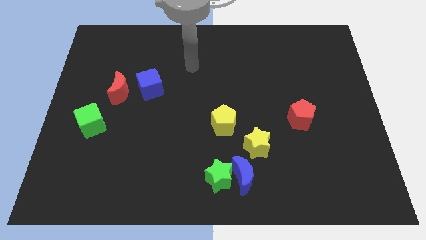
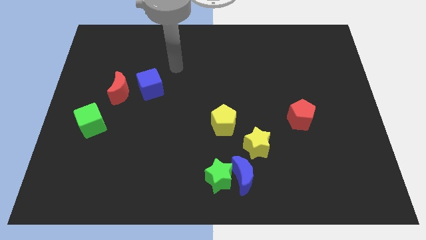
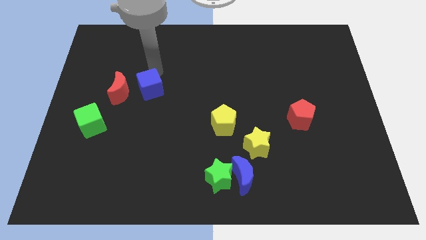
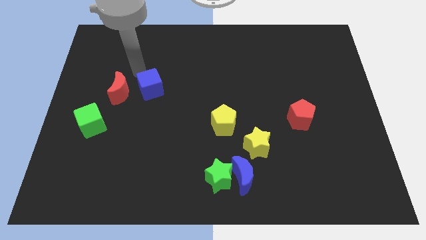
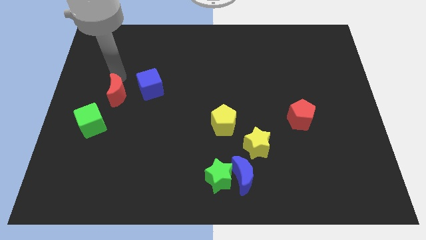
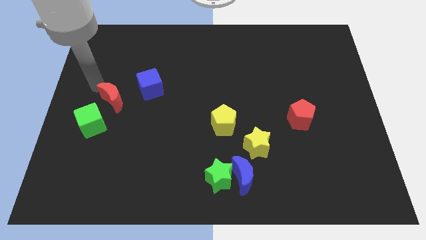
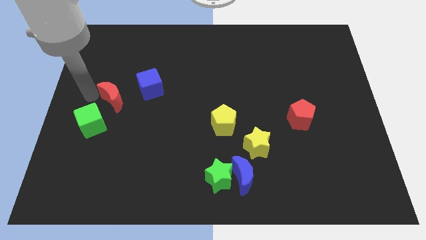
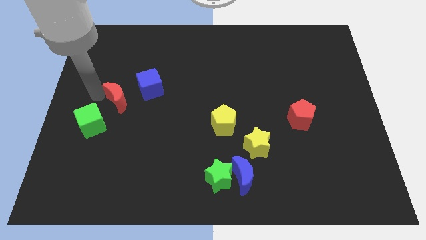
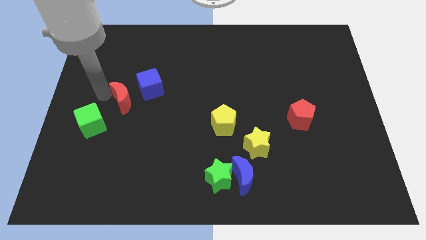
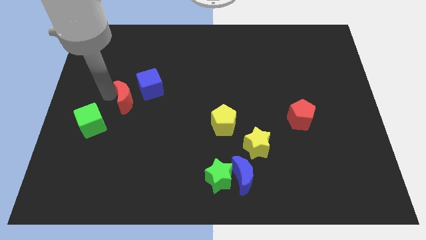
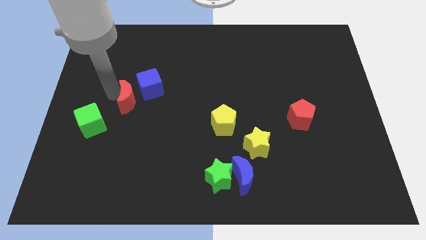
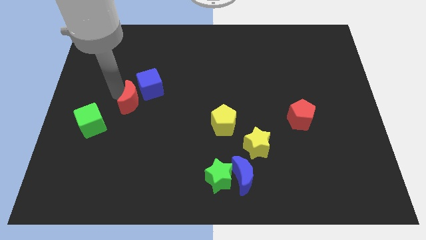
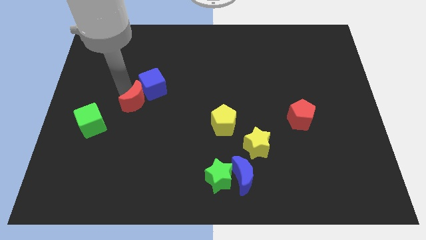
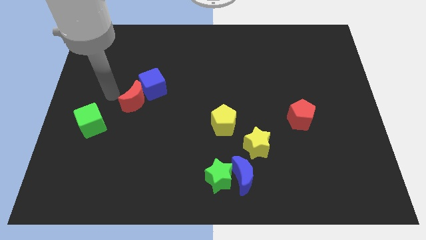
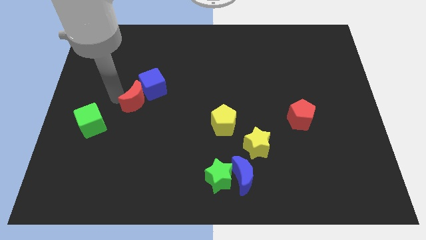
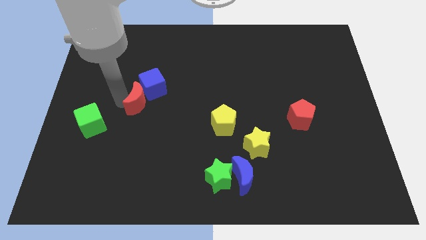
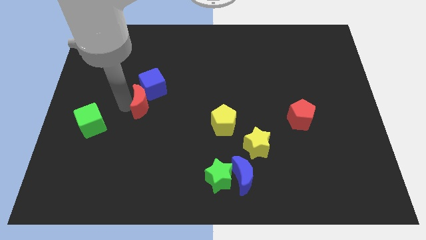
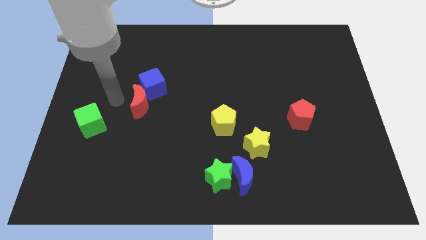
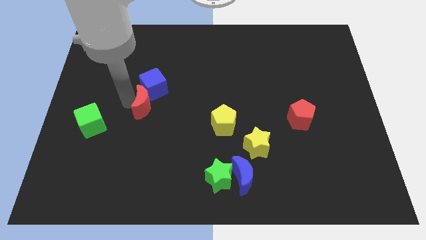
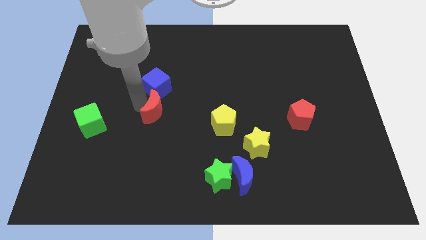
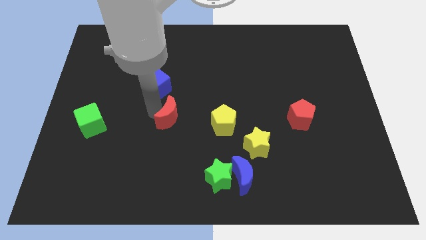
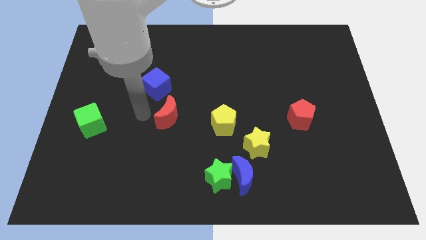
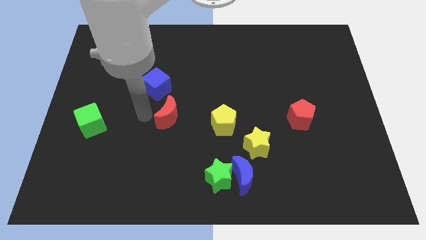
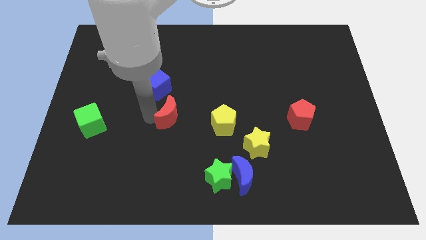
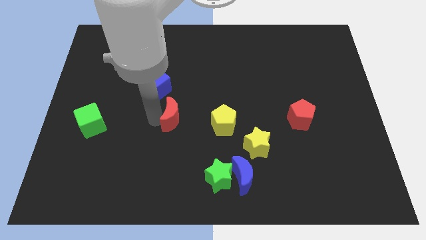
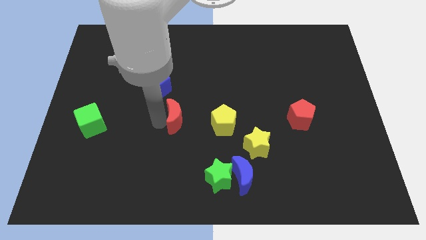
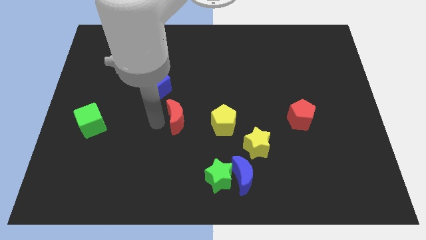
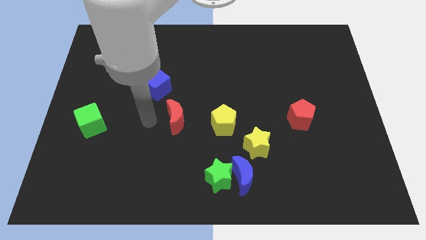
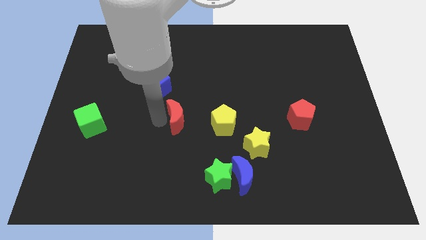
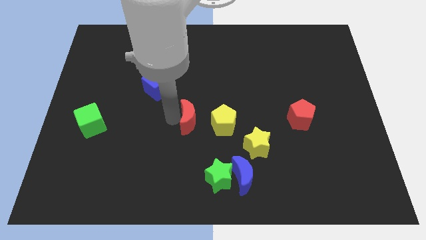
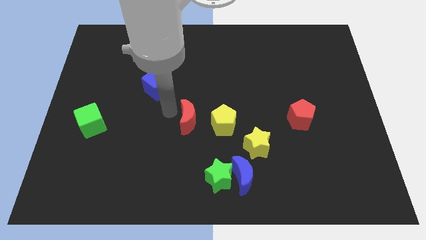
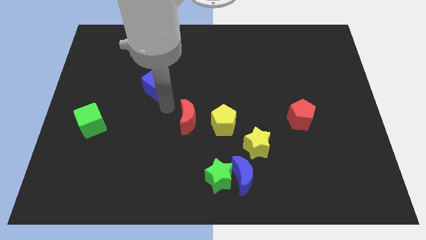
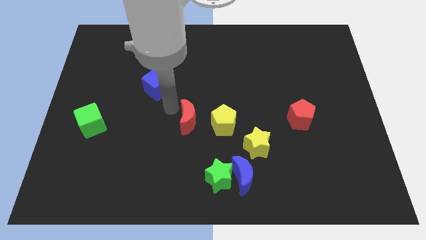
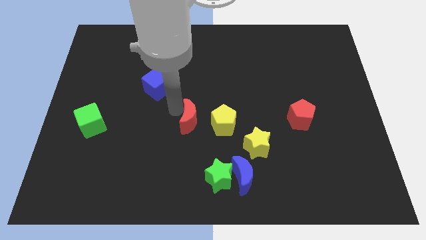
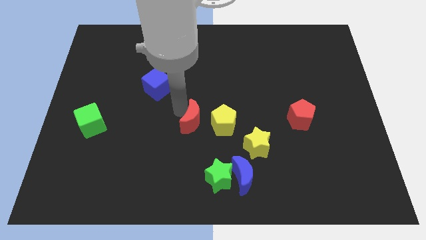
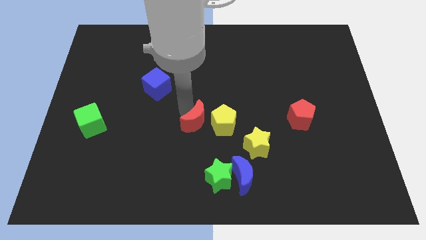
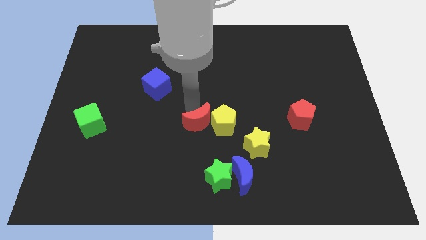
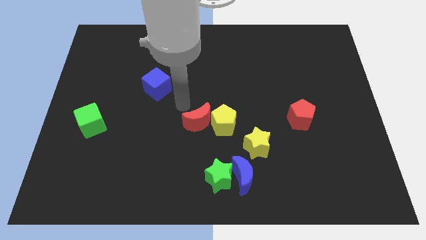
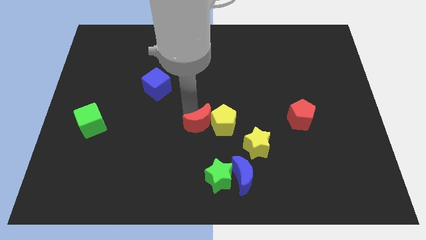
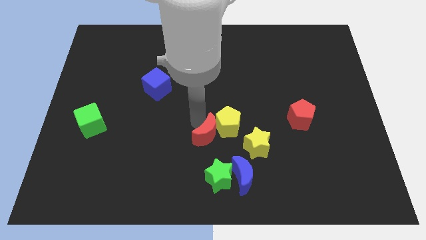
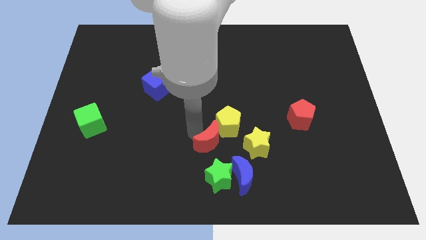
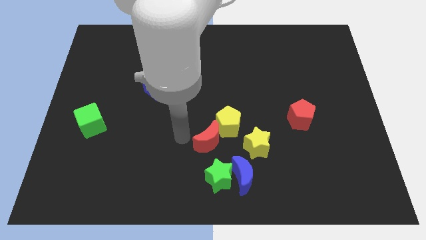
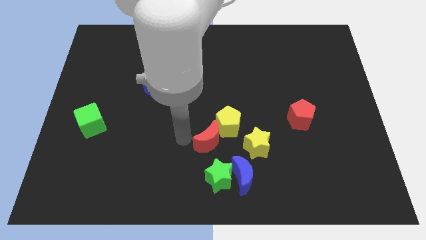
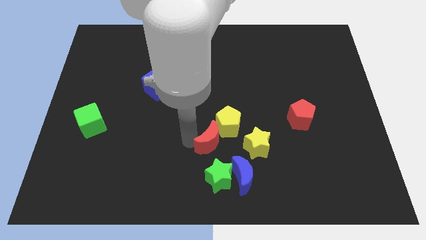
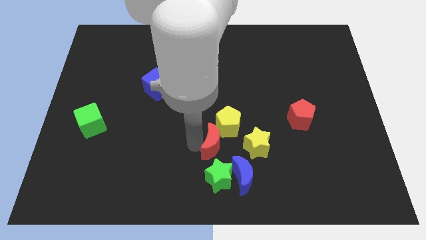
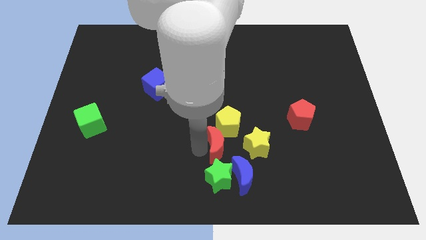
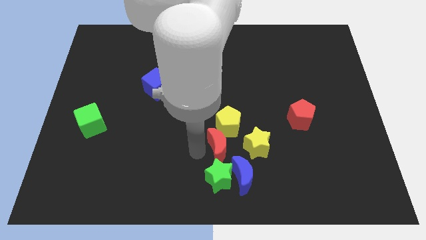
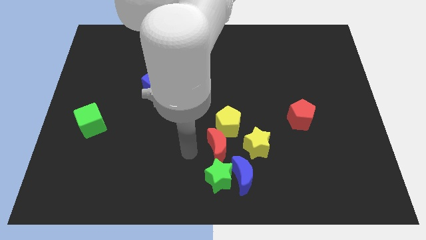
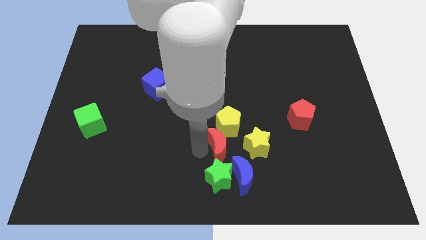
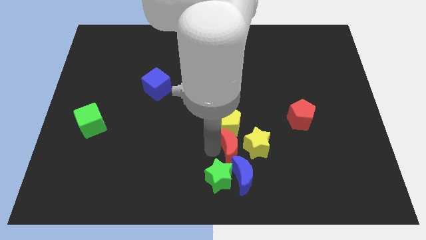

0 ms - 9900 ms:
slide the red moon to the yellow star

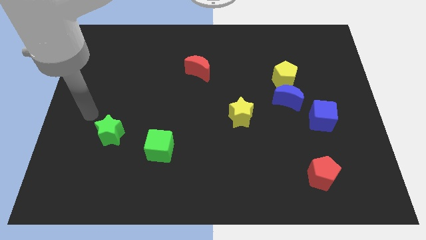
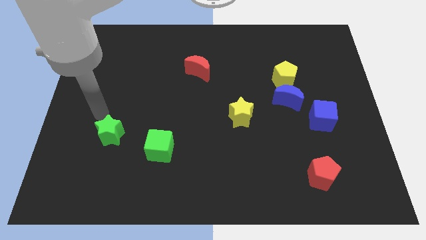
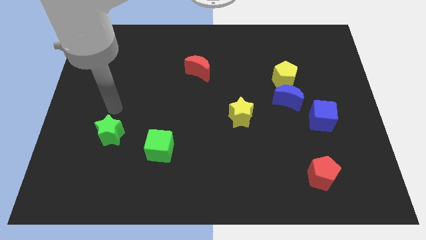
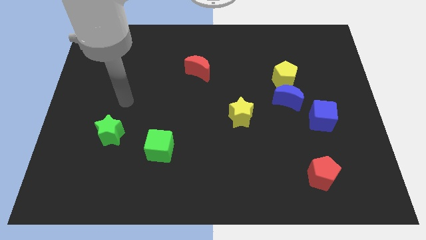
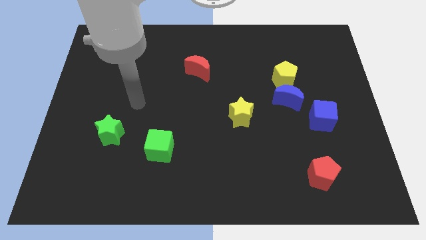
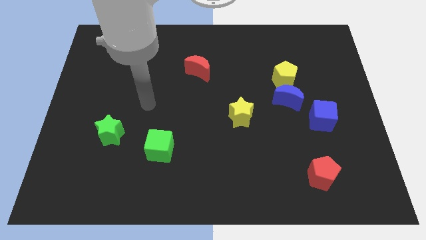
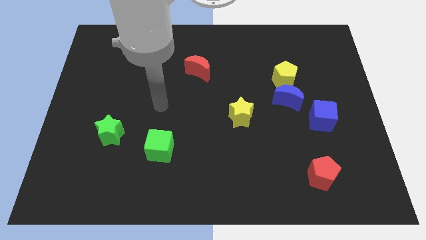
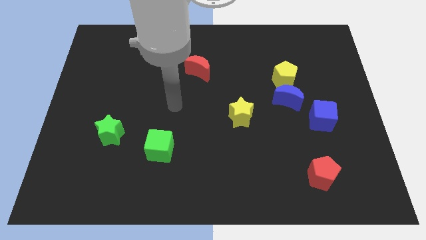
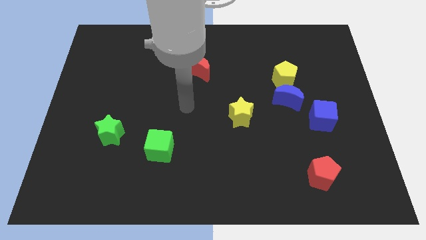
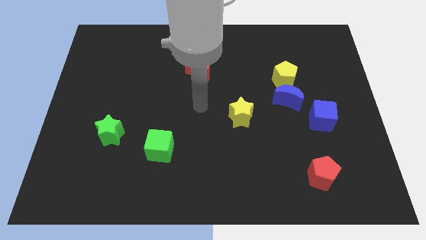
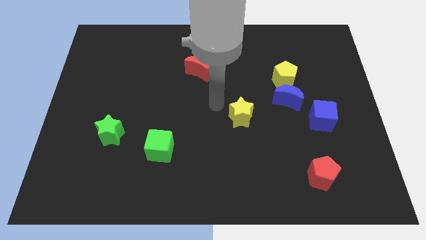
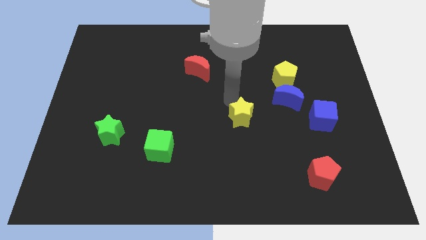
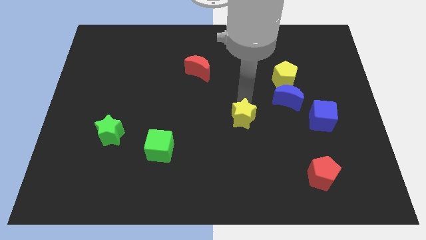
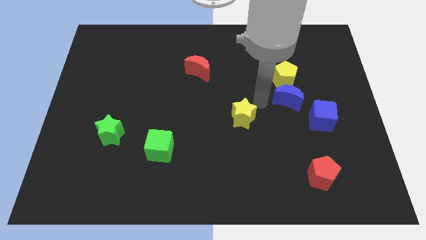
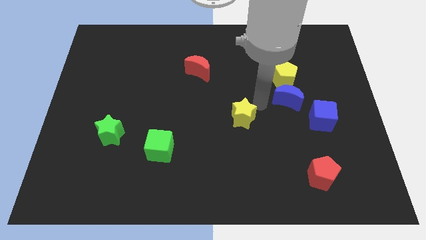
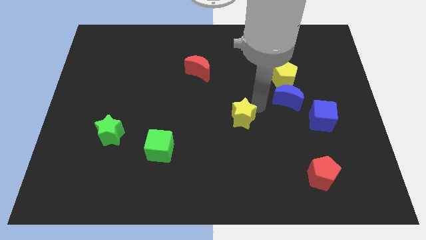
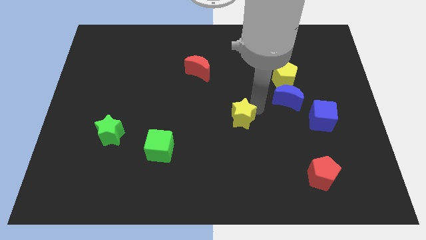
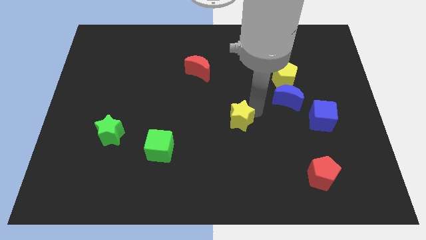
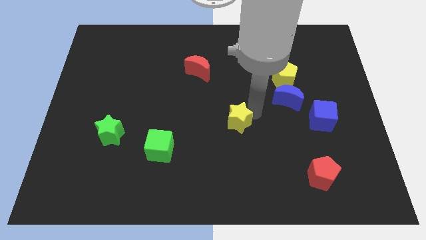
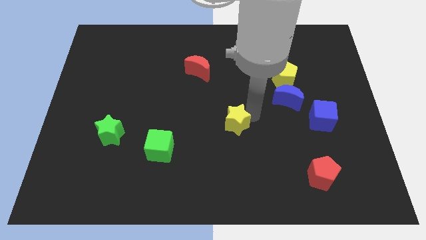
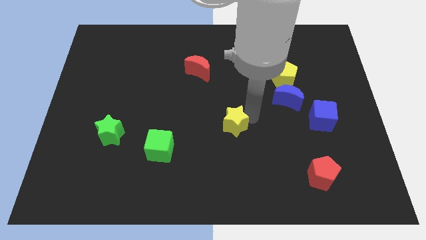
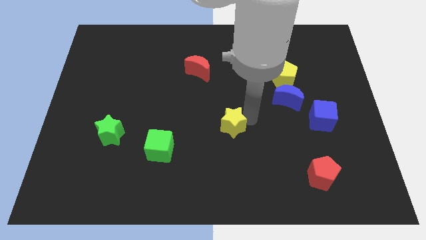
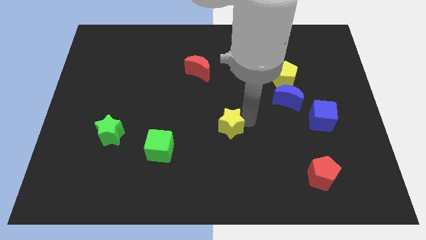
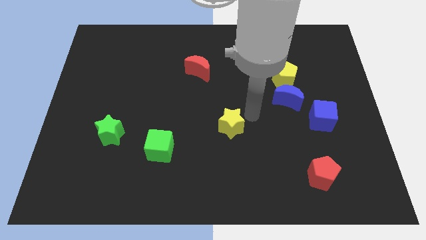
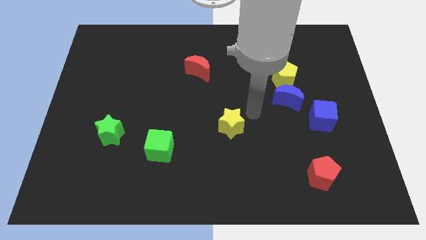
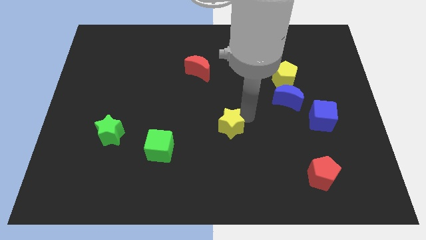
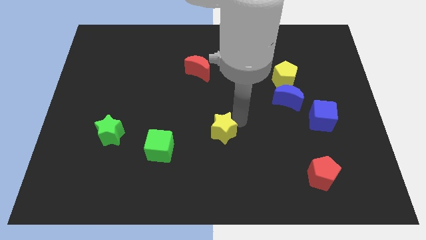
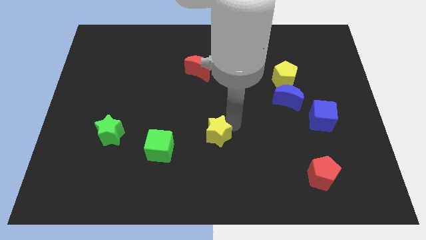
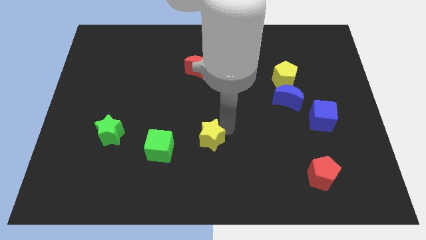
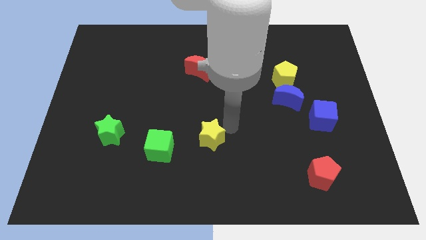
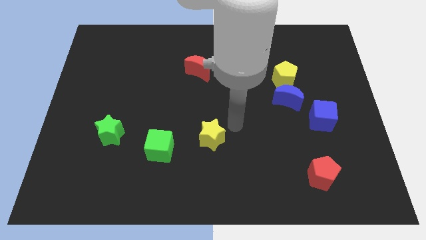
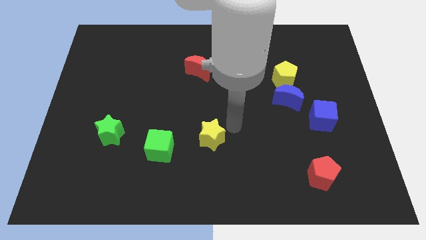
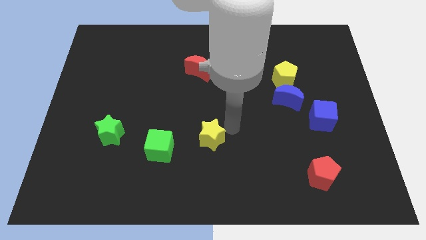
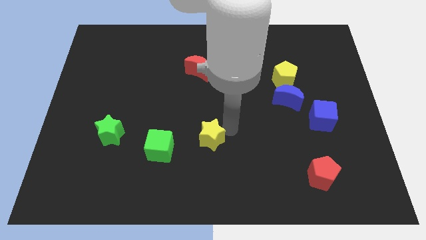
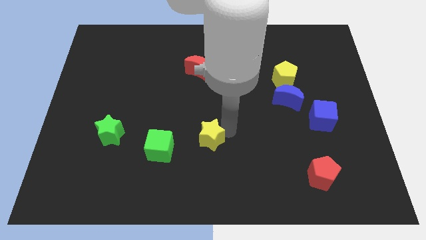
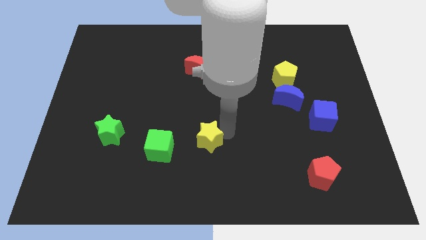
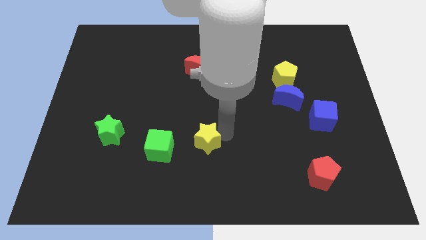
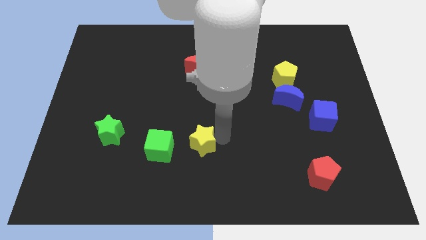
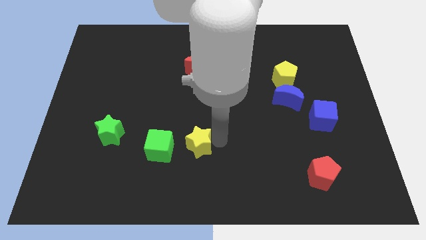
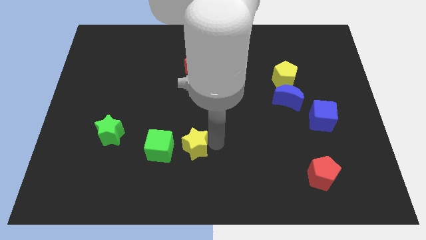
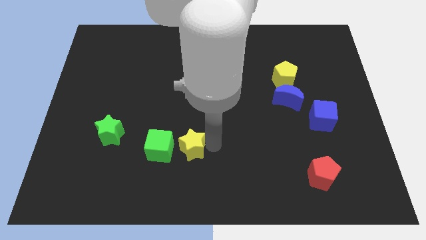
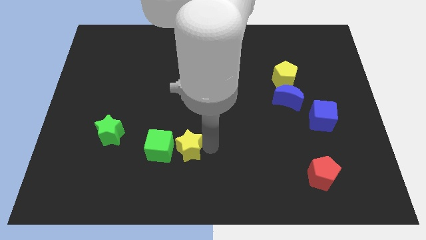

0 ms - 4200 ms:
slide the yellow star close to the green cube
